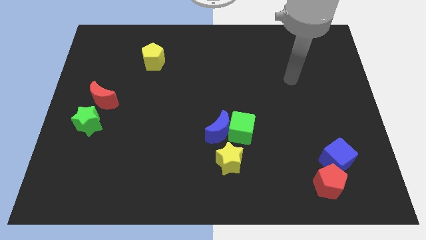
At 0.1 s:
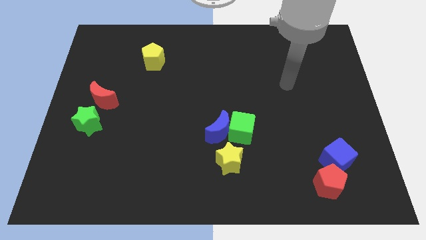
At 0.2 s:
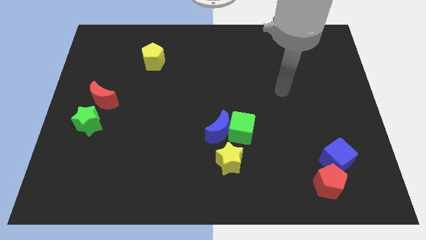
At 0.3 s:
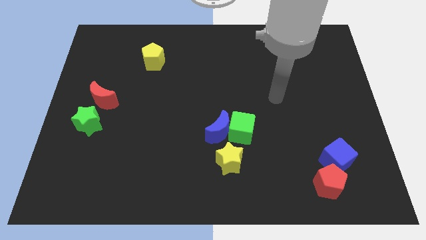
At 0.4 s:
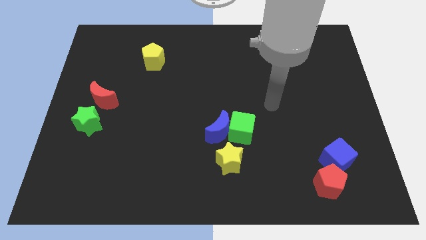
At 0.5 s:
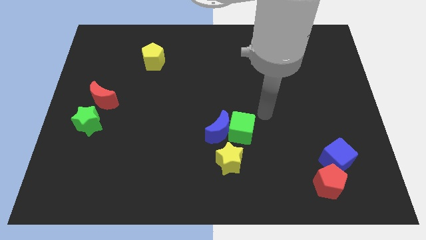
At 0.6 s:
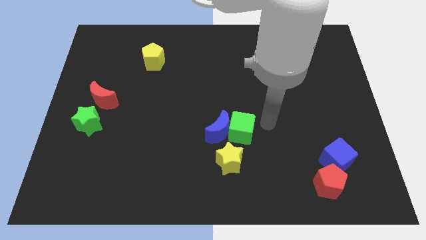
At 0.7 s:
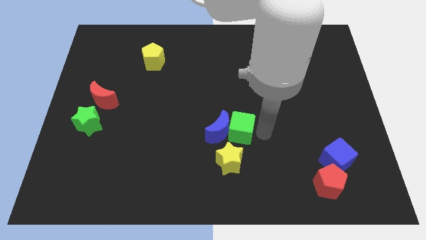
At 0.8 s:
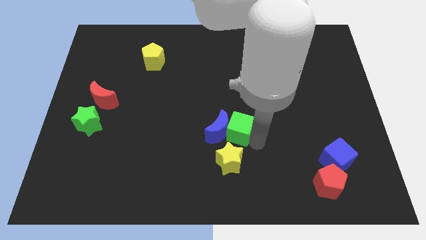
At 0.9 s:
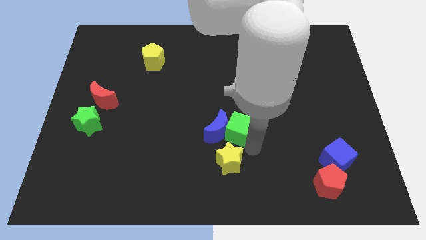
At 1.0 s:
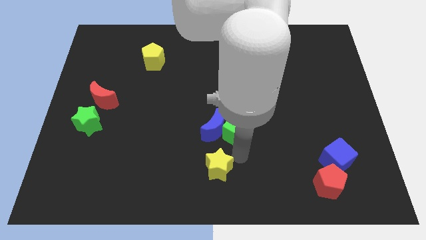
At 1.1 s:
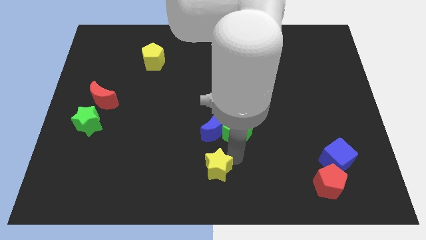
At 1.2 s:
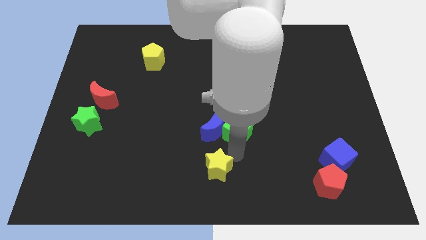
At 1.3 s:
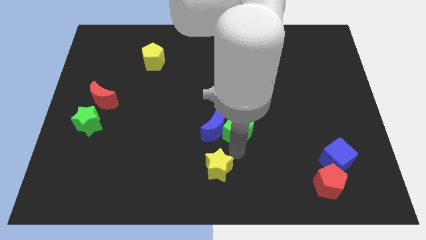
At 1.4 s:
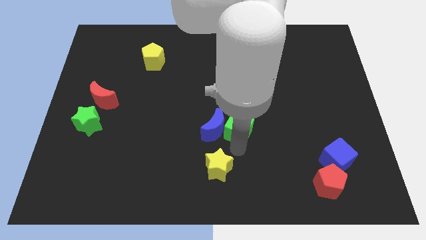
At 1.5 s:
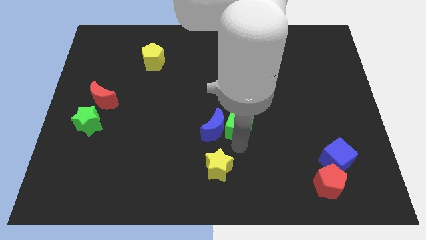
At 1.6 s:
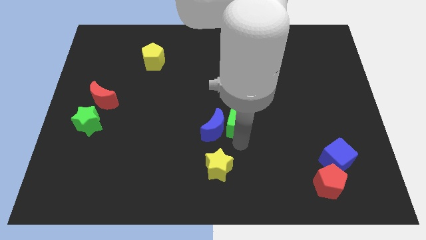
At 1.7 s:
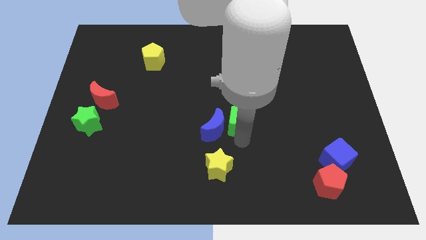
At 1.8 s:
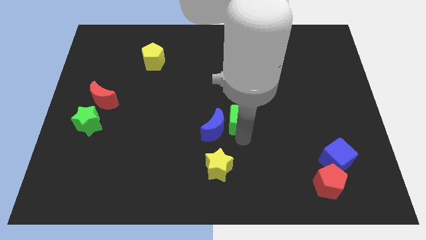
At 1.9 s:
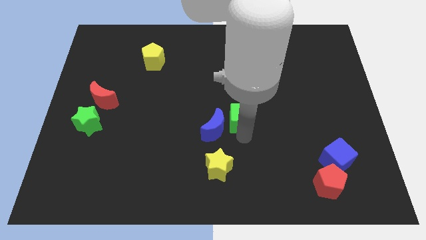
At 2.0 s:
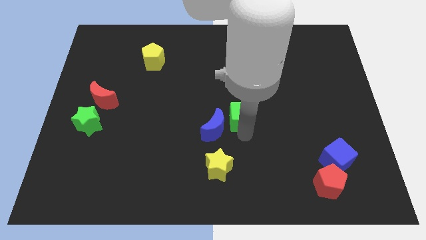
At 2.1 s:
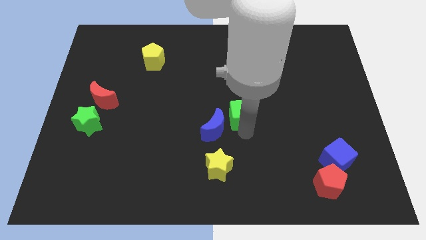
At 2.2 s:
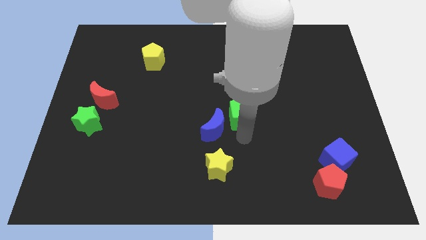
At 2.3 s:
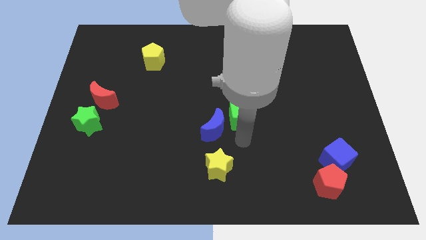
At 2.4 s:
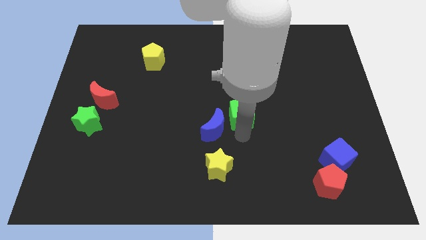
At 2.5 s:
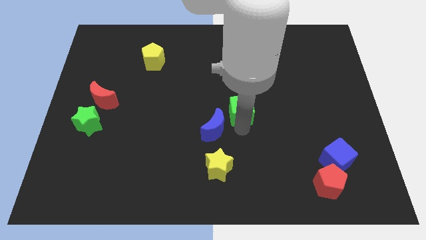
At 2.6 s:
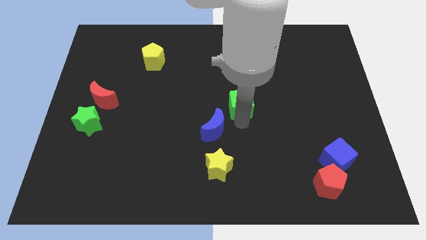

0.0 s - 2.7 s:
slide the green cube a little up

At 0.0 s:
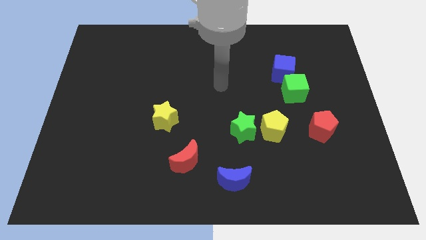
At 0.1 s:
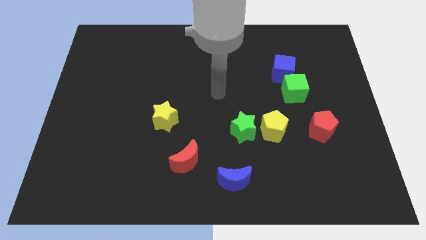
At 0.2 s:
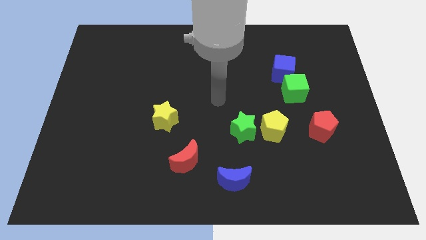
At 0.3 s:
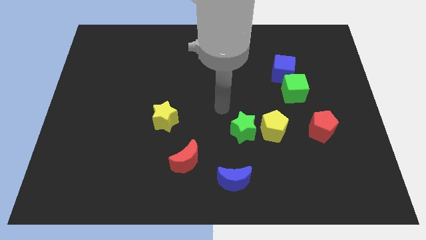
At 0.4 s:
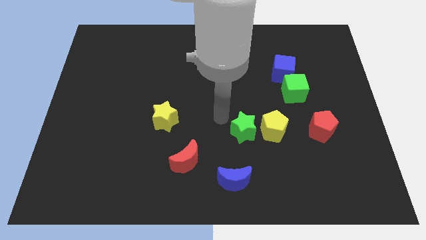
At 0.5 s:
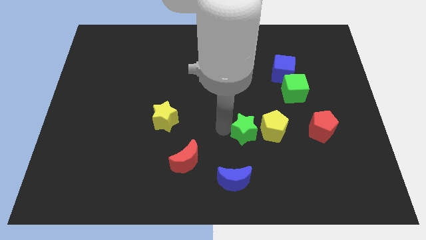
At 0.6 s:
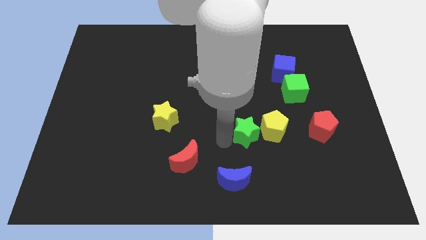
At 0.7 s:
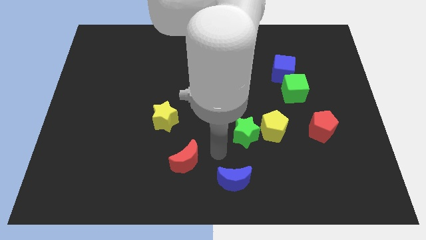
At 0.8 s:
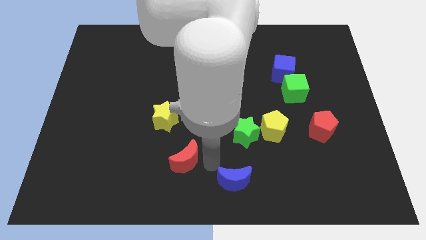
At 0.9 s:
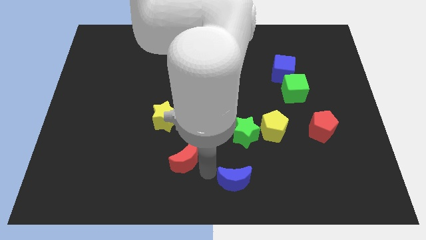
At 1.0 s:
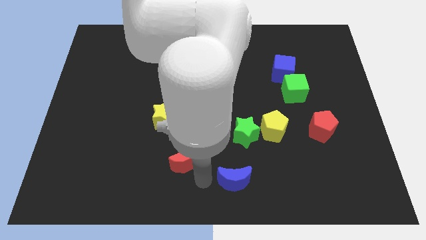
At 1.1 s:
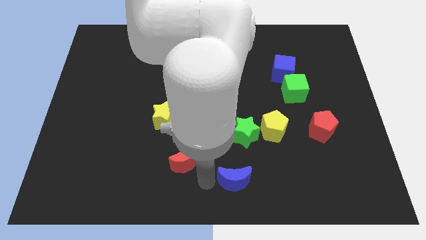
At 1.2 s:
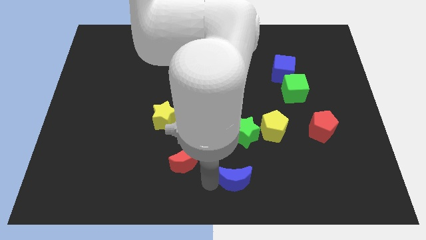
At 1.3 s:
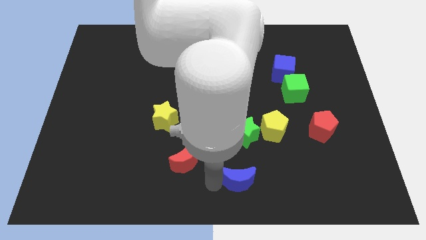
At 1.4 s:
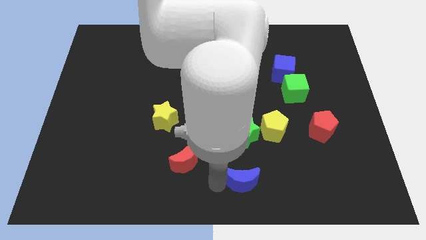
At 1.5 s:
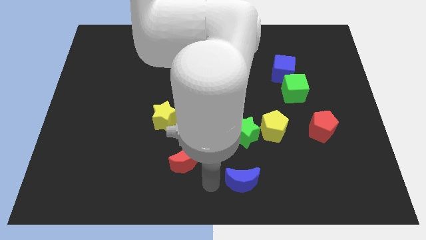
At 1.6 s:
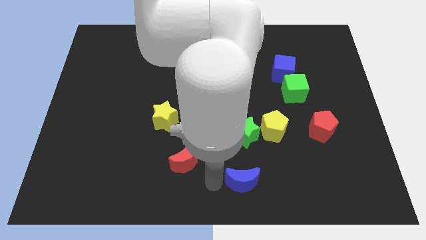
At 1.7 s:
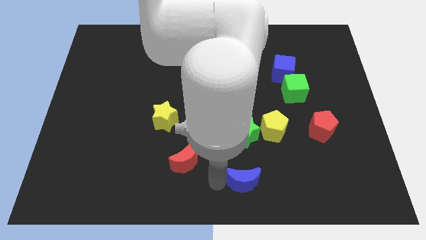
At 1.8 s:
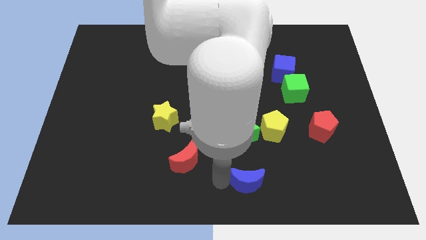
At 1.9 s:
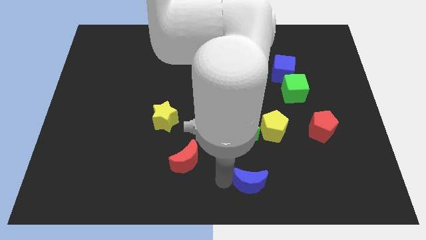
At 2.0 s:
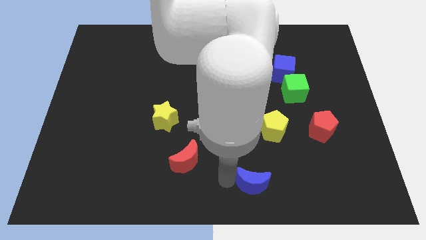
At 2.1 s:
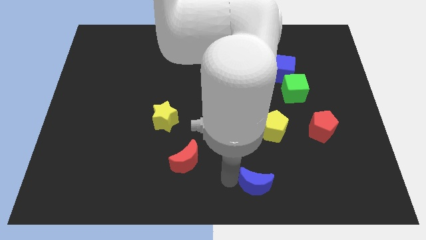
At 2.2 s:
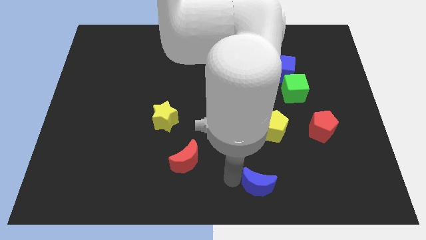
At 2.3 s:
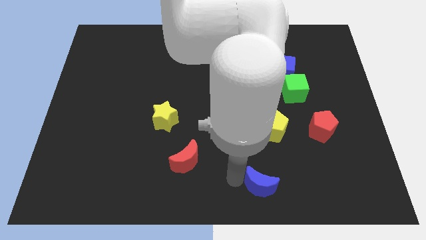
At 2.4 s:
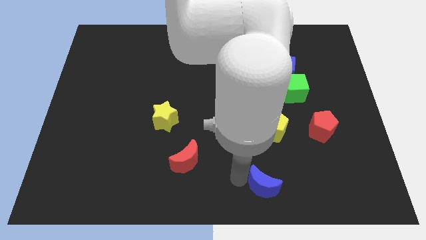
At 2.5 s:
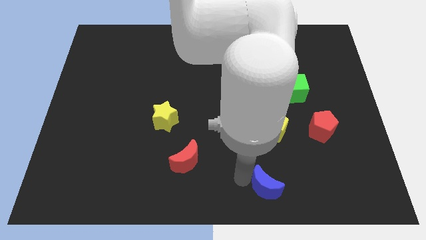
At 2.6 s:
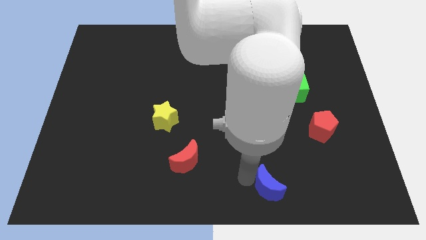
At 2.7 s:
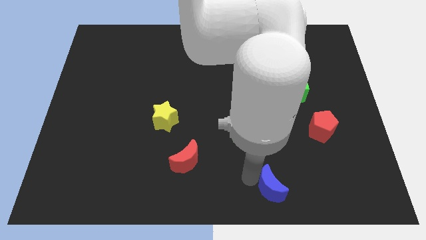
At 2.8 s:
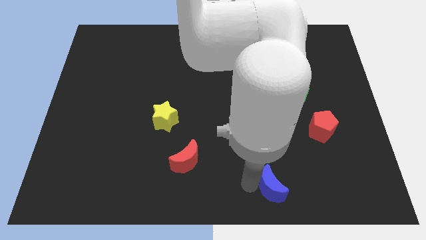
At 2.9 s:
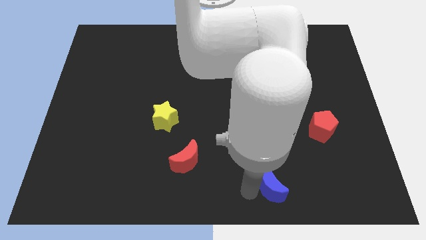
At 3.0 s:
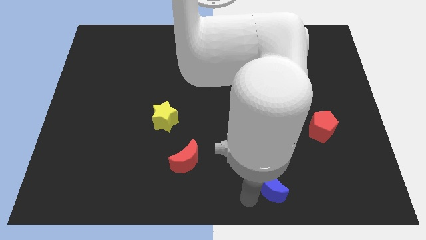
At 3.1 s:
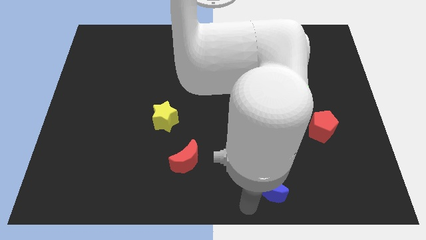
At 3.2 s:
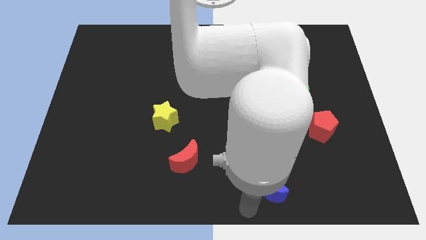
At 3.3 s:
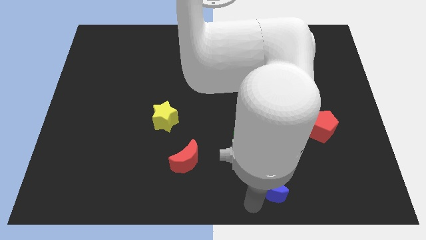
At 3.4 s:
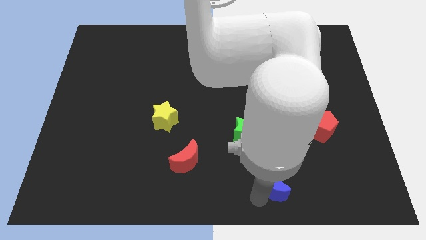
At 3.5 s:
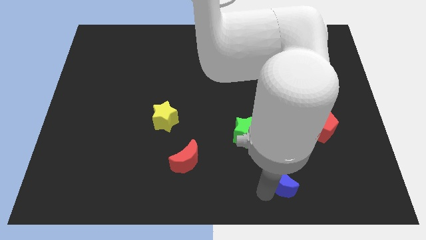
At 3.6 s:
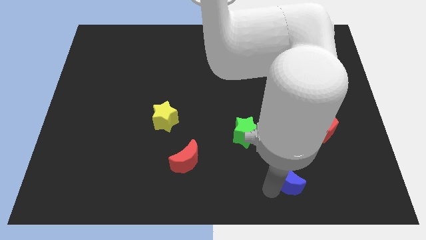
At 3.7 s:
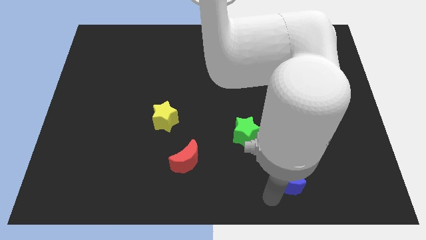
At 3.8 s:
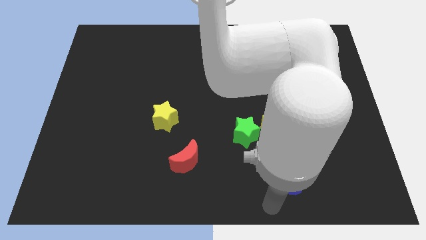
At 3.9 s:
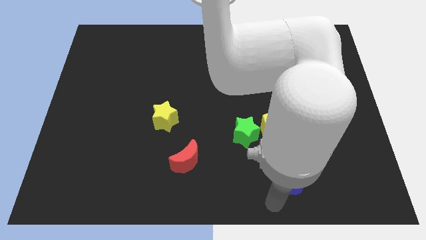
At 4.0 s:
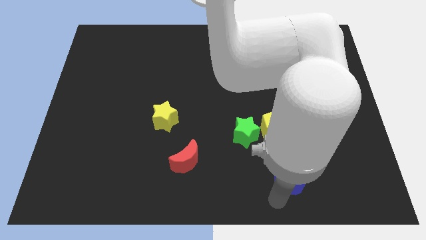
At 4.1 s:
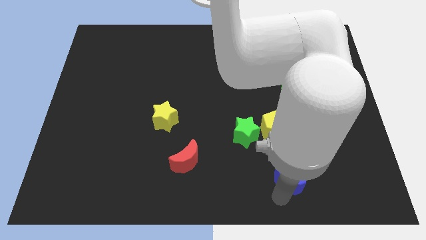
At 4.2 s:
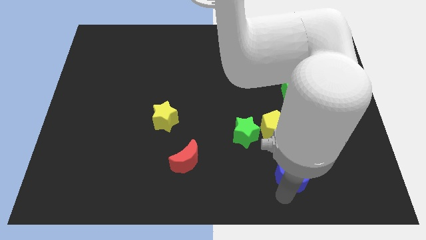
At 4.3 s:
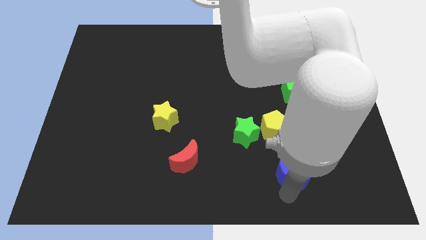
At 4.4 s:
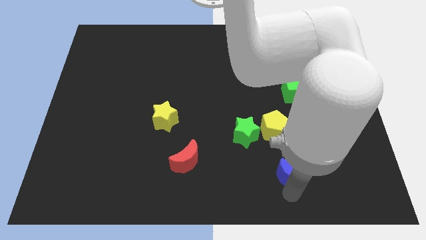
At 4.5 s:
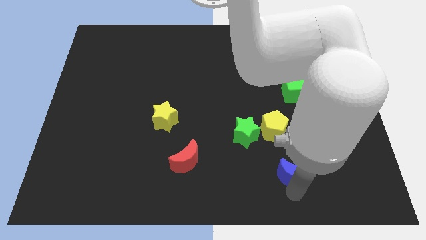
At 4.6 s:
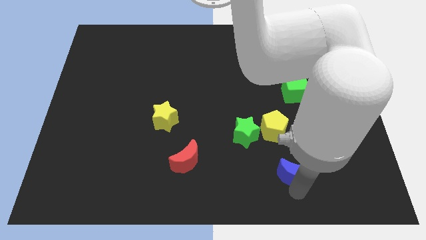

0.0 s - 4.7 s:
push the blue moon up and then to the right a little bit

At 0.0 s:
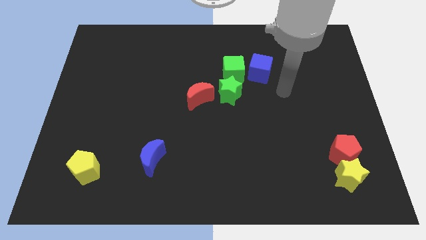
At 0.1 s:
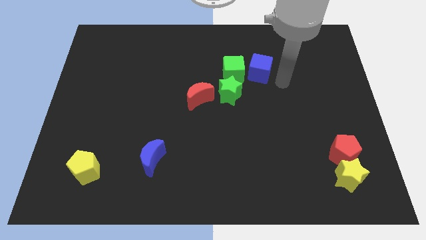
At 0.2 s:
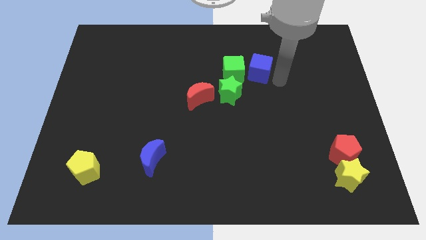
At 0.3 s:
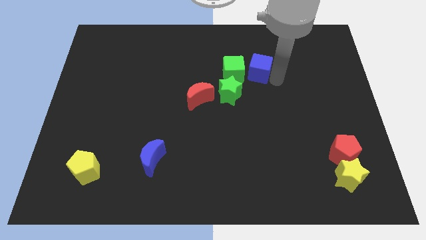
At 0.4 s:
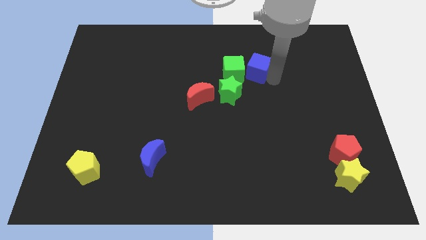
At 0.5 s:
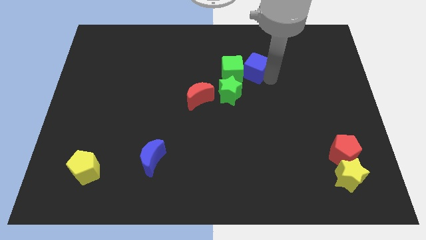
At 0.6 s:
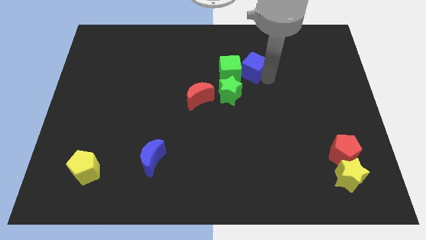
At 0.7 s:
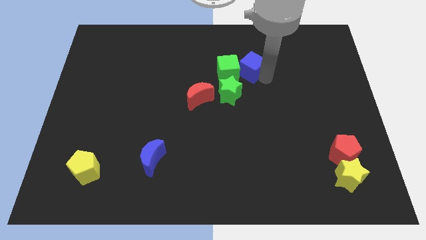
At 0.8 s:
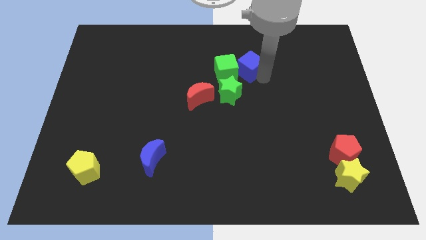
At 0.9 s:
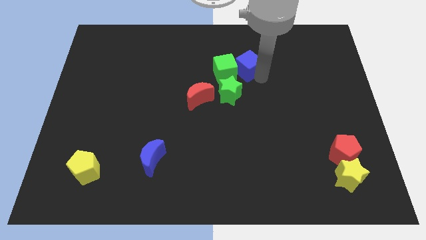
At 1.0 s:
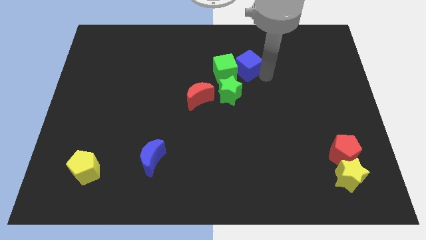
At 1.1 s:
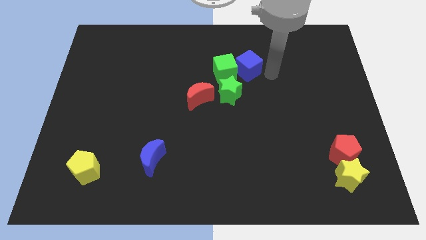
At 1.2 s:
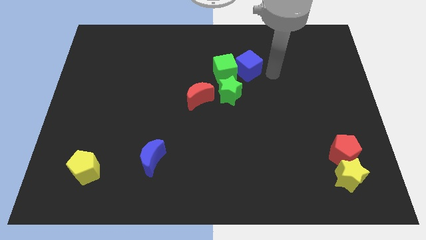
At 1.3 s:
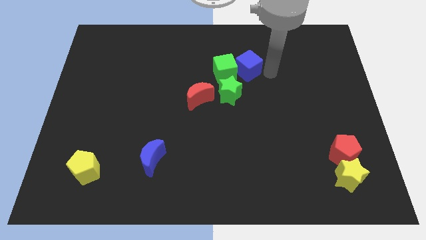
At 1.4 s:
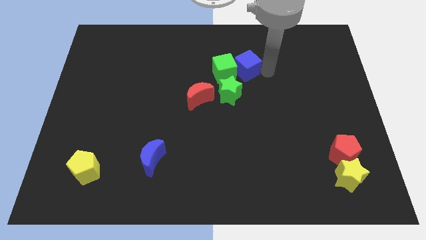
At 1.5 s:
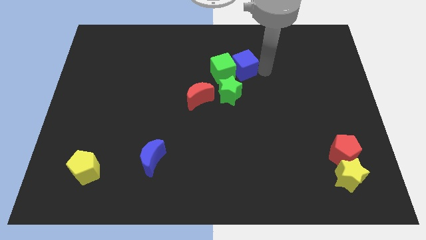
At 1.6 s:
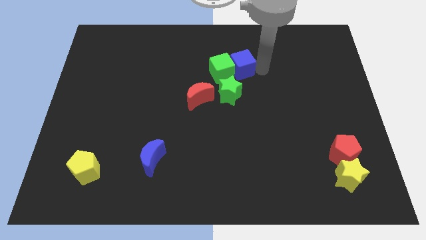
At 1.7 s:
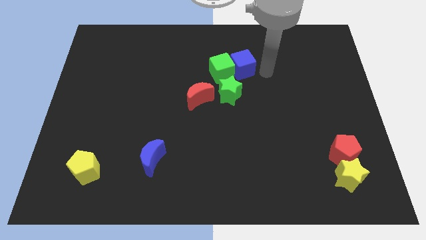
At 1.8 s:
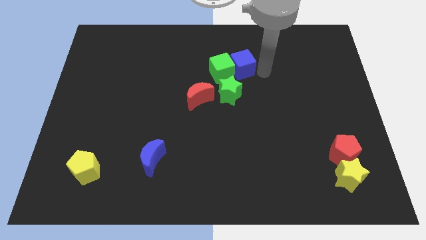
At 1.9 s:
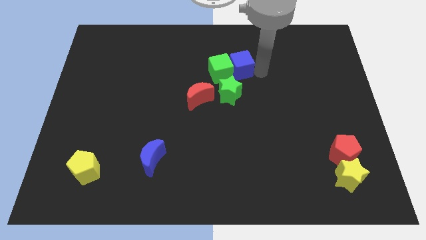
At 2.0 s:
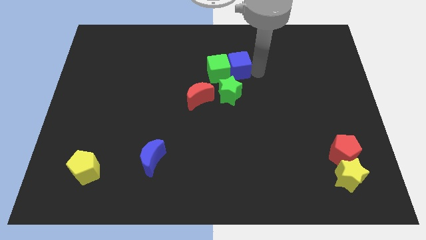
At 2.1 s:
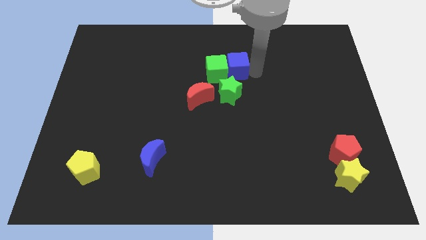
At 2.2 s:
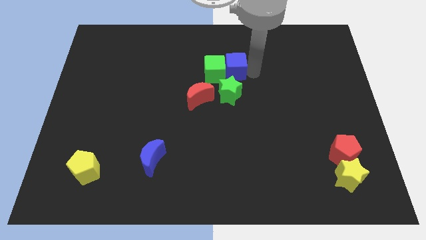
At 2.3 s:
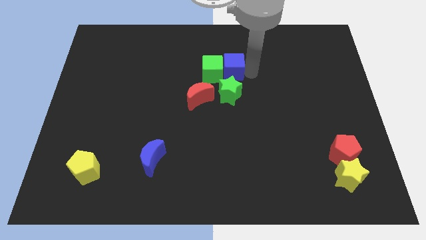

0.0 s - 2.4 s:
move the blue cube a little left
